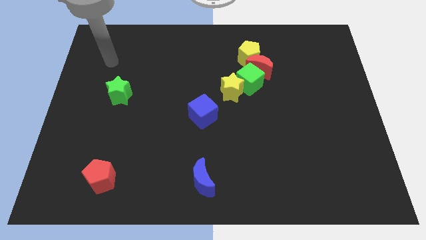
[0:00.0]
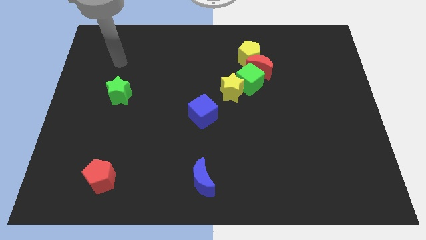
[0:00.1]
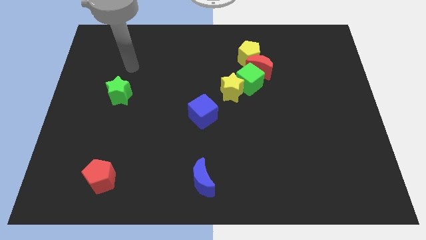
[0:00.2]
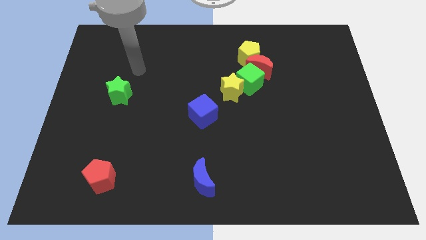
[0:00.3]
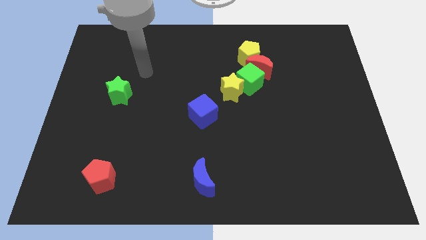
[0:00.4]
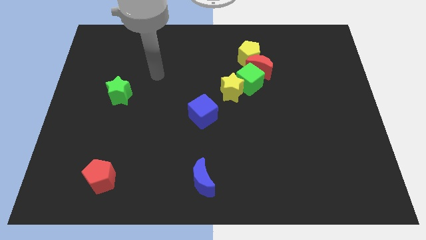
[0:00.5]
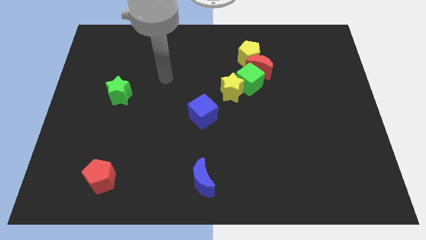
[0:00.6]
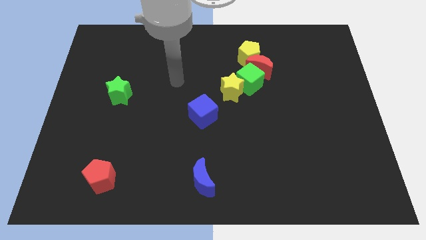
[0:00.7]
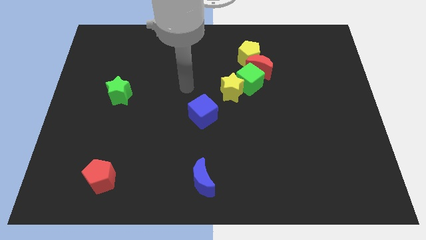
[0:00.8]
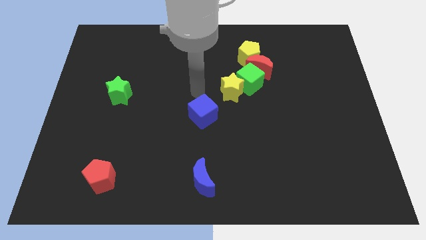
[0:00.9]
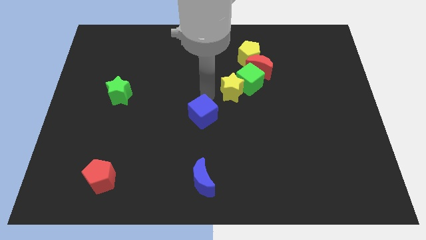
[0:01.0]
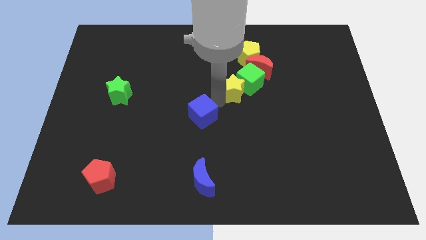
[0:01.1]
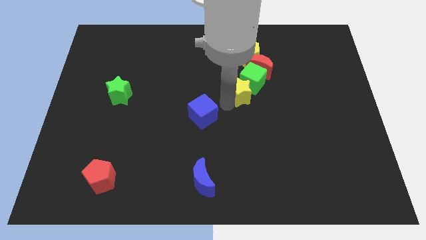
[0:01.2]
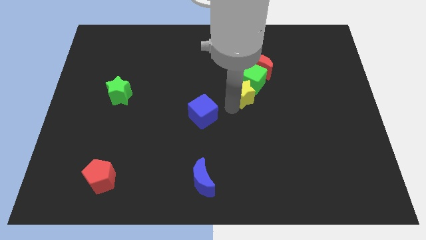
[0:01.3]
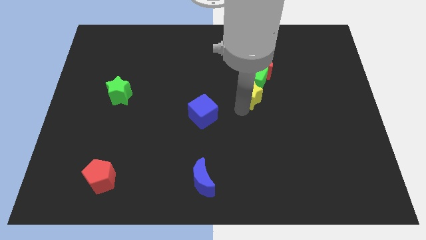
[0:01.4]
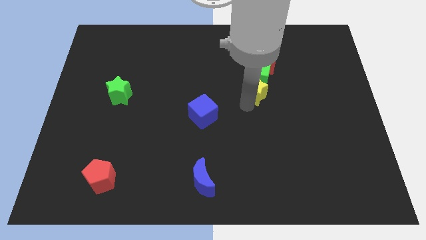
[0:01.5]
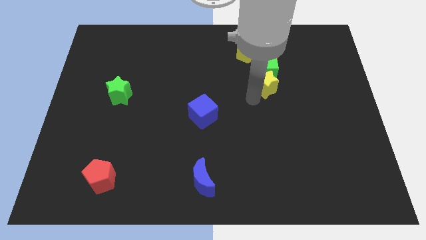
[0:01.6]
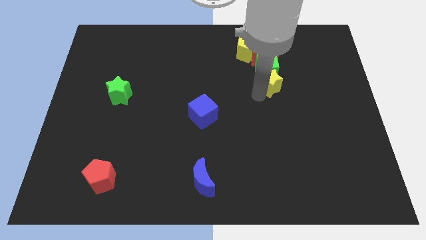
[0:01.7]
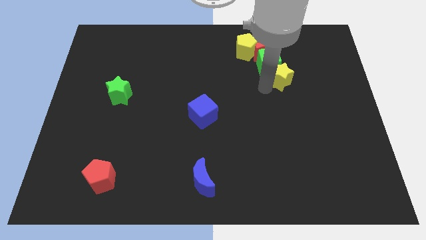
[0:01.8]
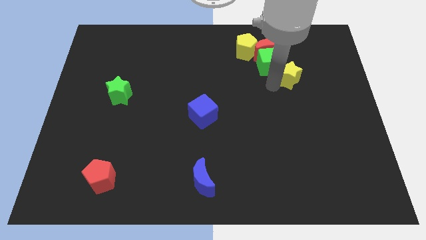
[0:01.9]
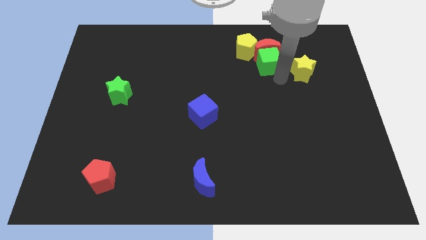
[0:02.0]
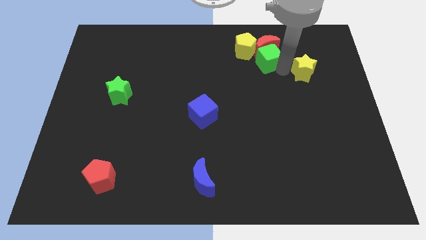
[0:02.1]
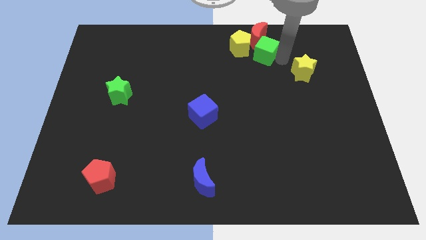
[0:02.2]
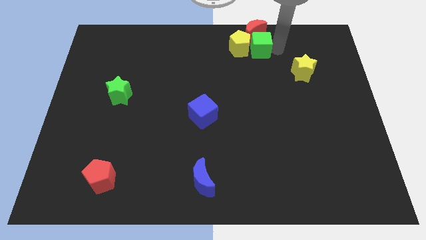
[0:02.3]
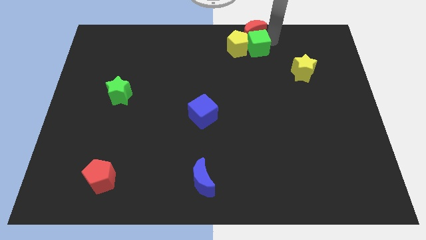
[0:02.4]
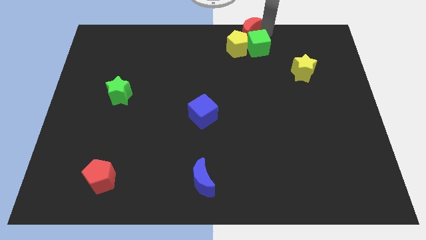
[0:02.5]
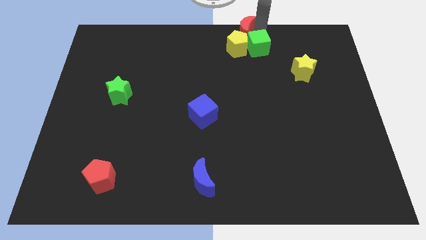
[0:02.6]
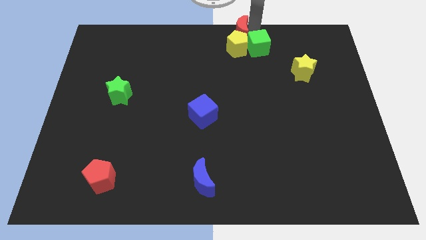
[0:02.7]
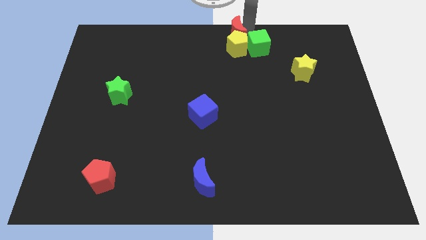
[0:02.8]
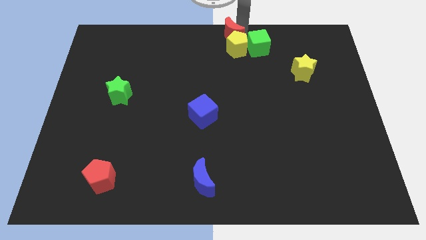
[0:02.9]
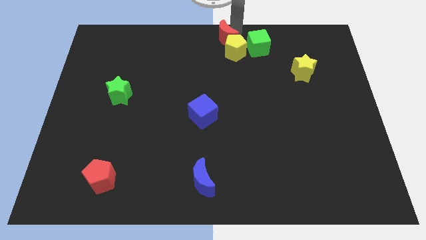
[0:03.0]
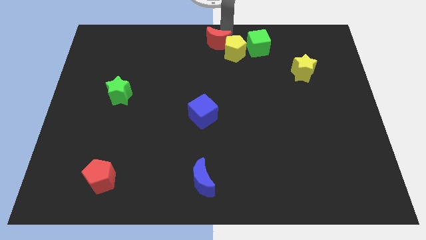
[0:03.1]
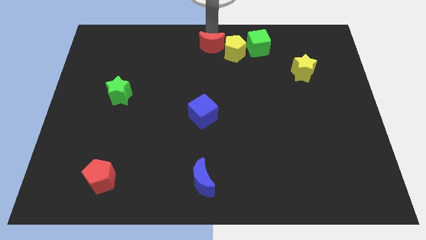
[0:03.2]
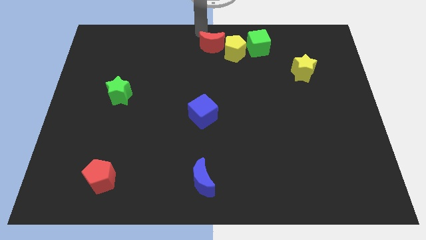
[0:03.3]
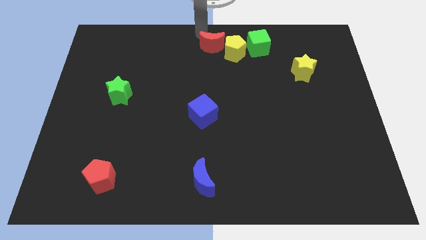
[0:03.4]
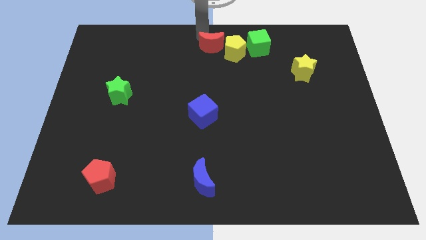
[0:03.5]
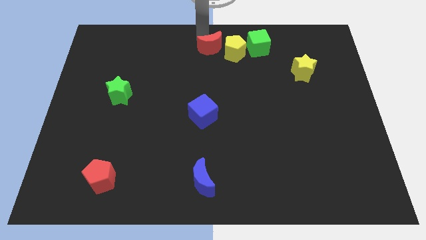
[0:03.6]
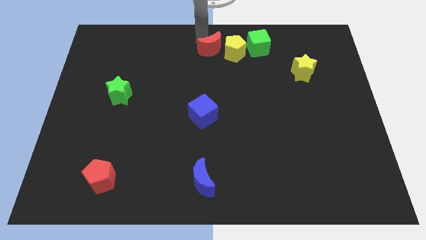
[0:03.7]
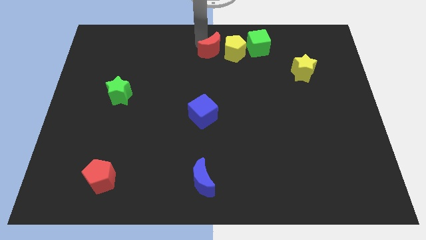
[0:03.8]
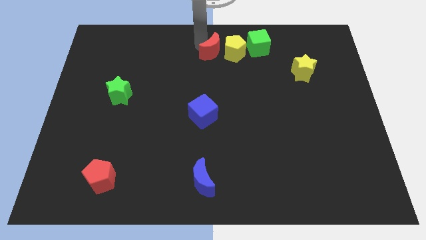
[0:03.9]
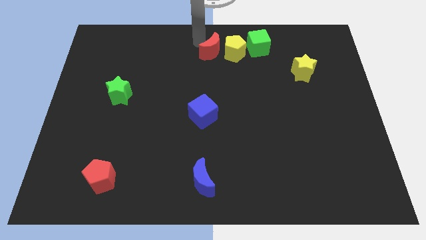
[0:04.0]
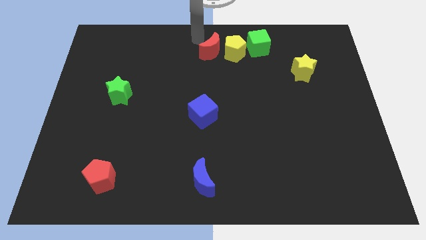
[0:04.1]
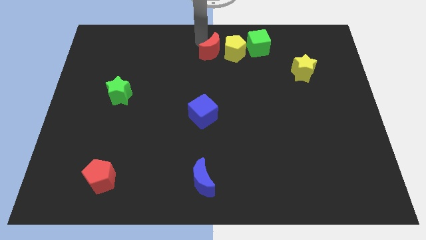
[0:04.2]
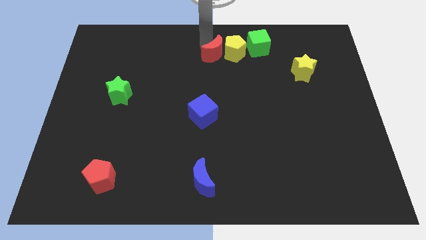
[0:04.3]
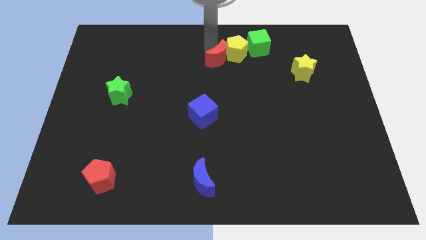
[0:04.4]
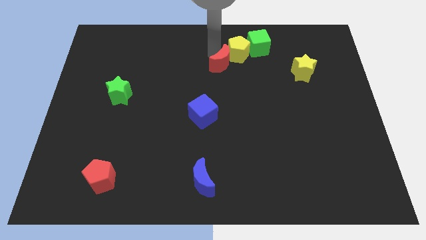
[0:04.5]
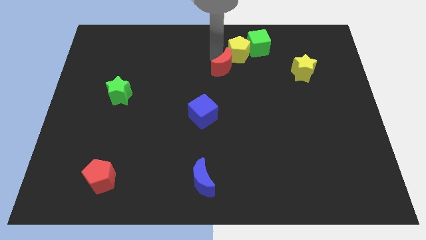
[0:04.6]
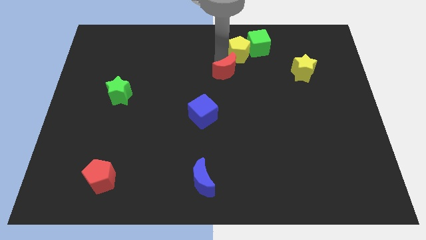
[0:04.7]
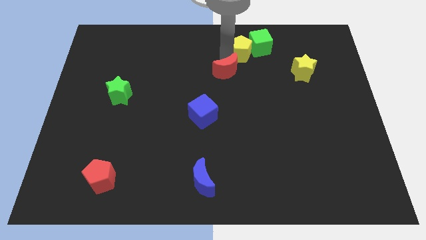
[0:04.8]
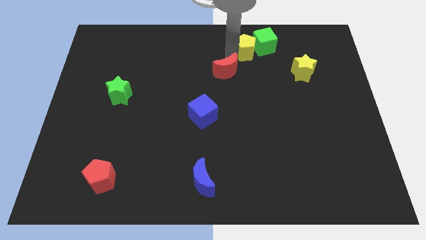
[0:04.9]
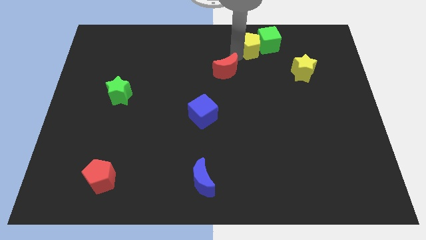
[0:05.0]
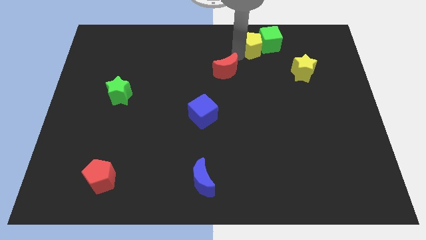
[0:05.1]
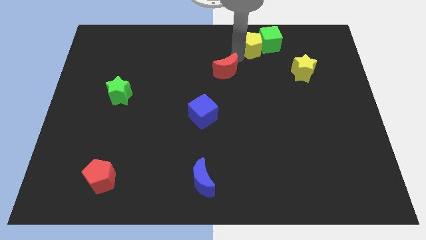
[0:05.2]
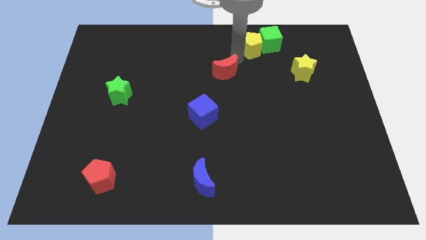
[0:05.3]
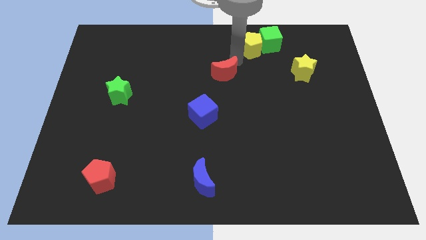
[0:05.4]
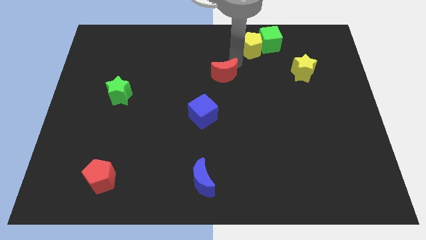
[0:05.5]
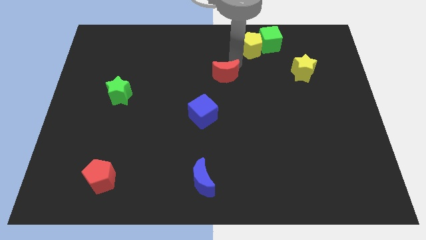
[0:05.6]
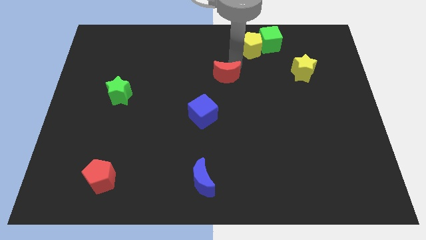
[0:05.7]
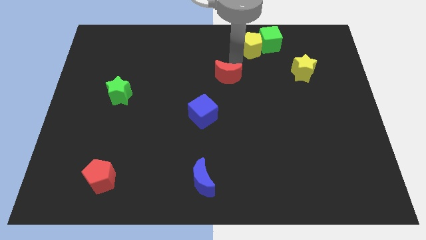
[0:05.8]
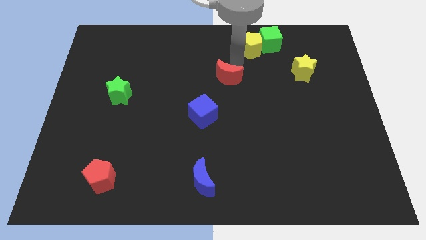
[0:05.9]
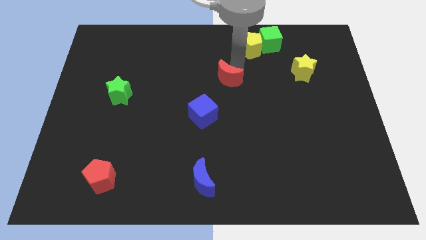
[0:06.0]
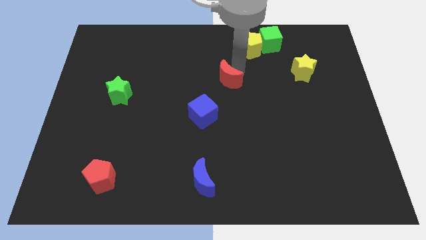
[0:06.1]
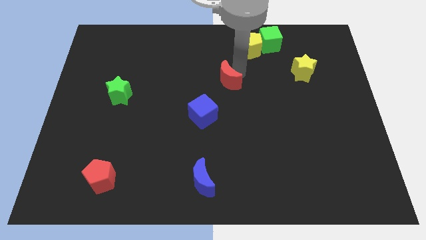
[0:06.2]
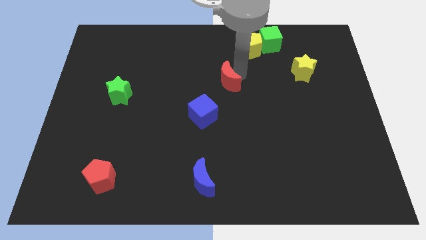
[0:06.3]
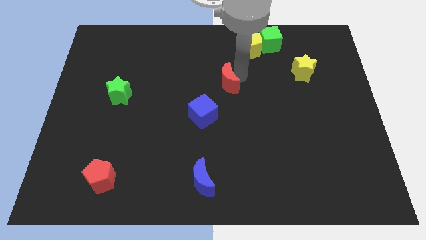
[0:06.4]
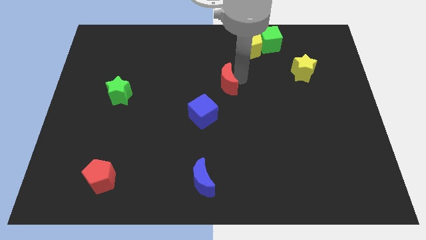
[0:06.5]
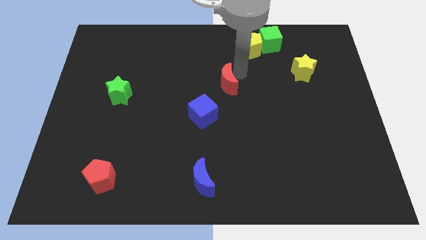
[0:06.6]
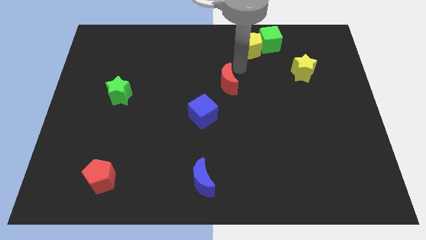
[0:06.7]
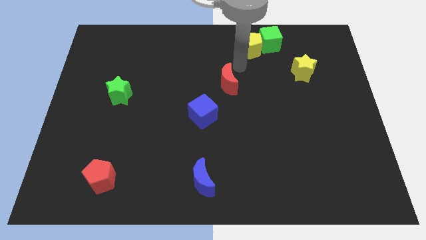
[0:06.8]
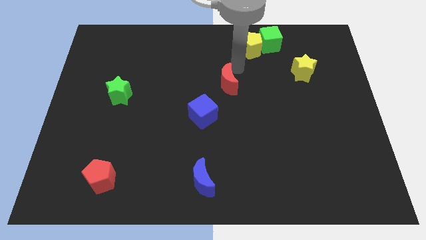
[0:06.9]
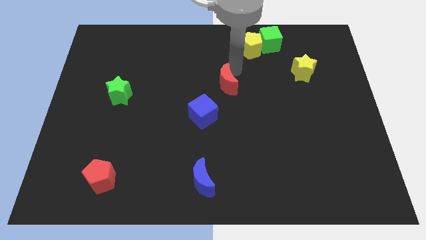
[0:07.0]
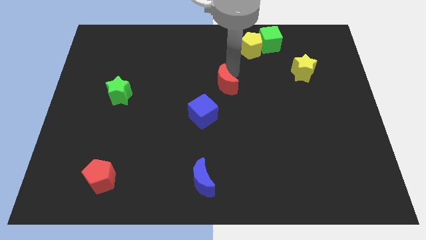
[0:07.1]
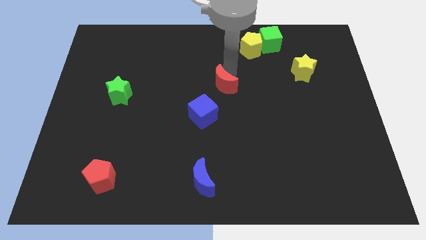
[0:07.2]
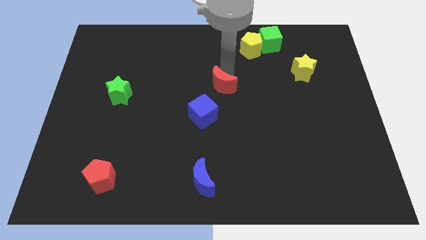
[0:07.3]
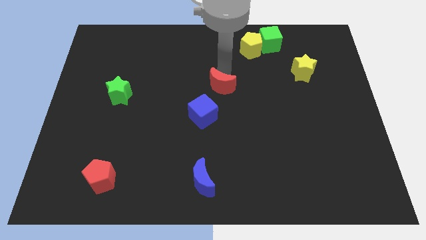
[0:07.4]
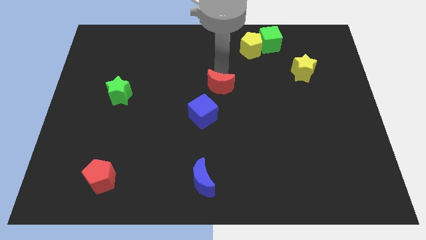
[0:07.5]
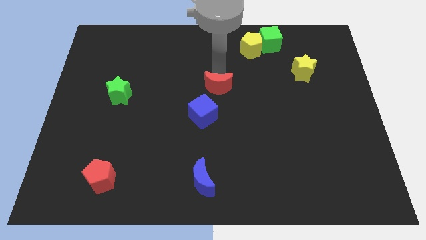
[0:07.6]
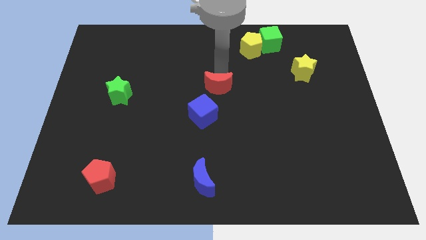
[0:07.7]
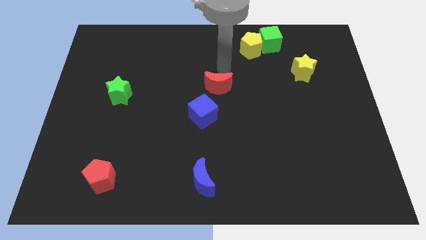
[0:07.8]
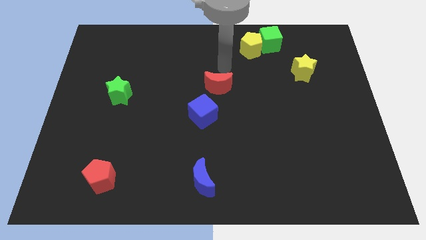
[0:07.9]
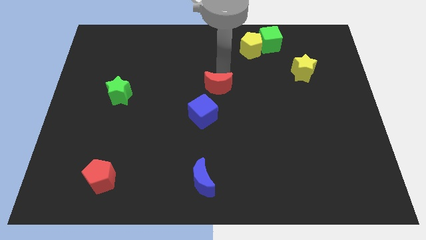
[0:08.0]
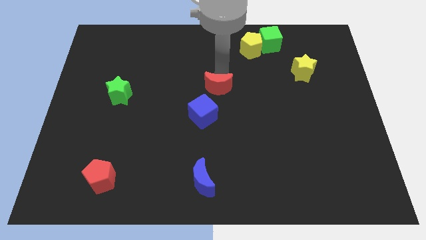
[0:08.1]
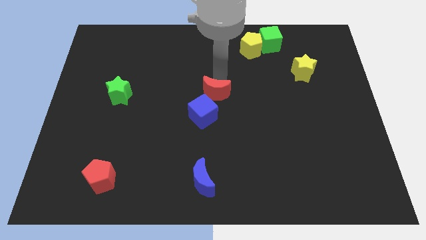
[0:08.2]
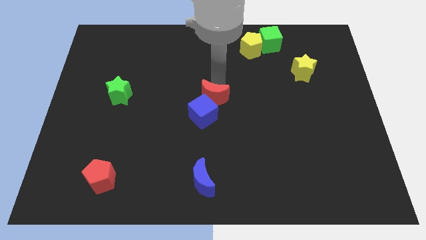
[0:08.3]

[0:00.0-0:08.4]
slide the red moon close to the blue cube
